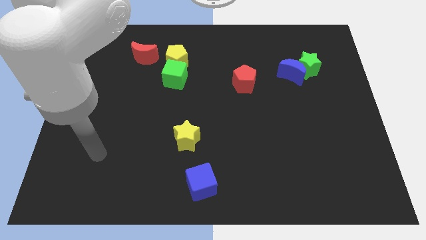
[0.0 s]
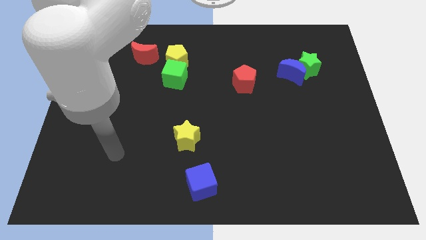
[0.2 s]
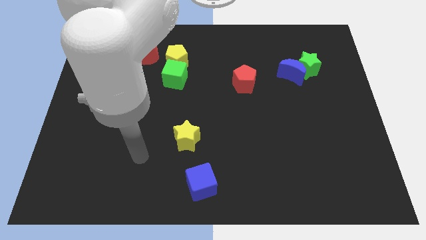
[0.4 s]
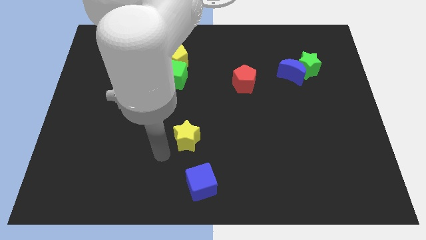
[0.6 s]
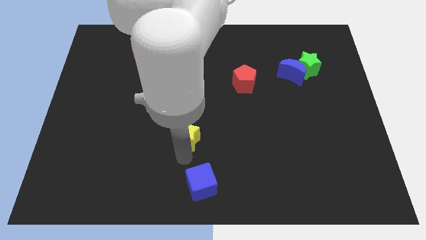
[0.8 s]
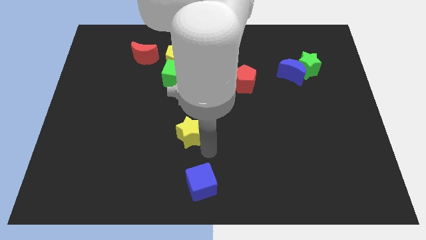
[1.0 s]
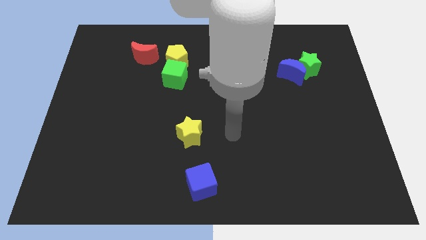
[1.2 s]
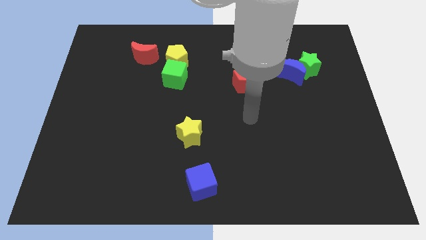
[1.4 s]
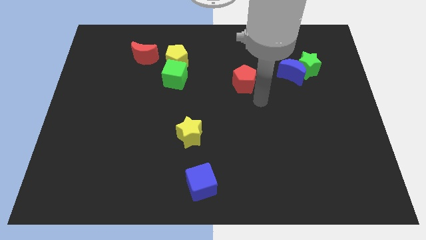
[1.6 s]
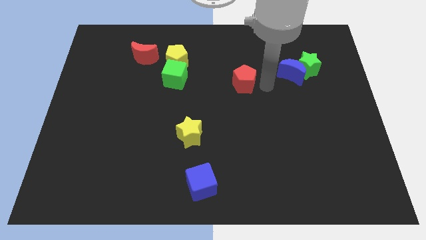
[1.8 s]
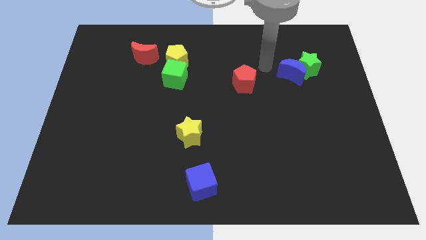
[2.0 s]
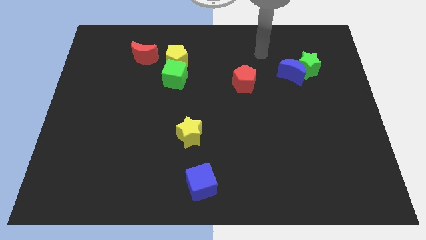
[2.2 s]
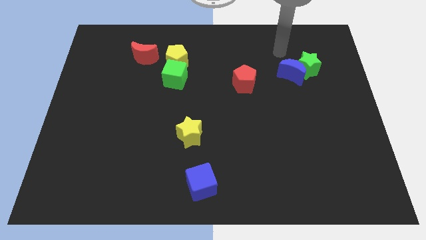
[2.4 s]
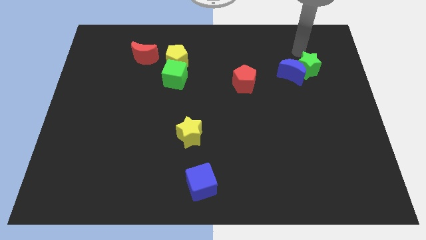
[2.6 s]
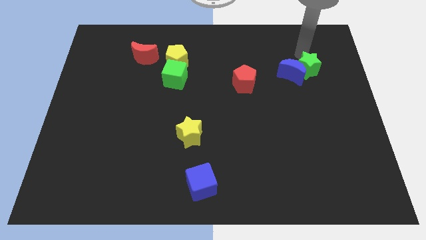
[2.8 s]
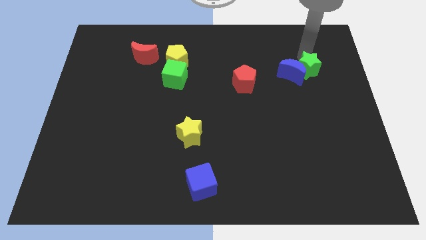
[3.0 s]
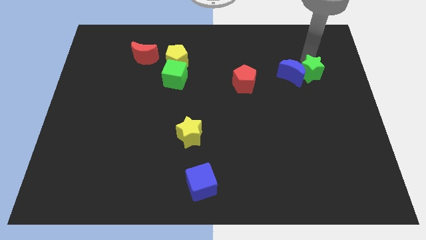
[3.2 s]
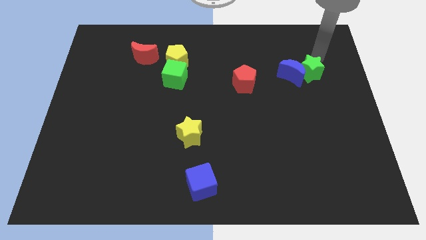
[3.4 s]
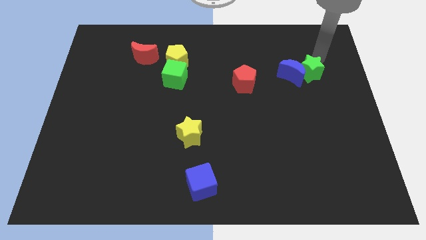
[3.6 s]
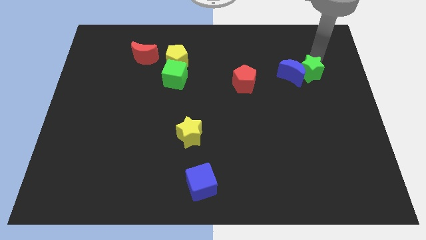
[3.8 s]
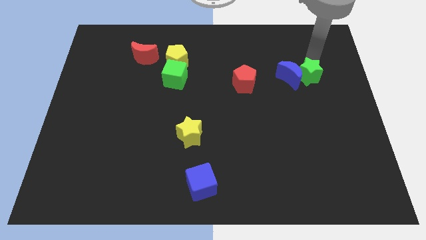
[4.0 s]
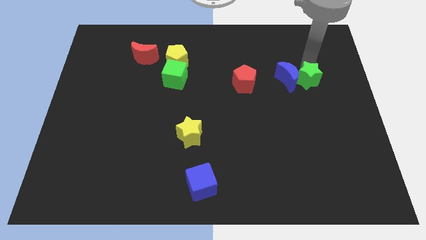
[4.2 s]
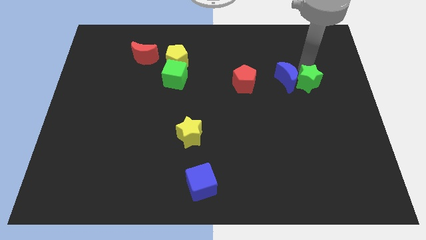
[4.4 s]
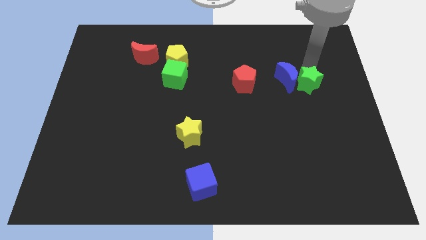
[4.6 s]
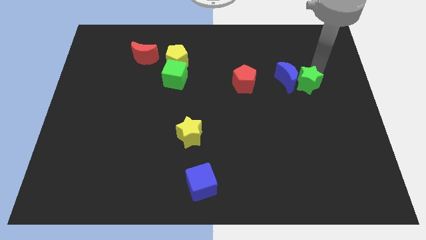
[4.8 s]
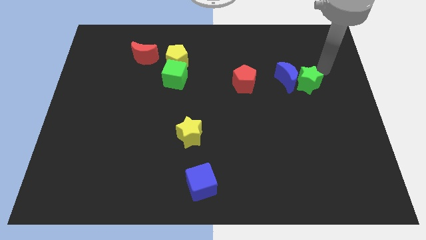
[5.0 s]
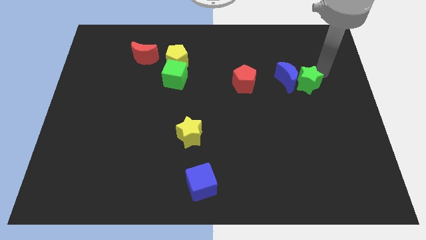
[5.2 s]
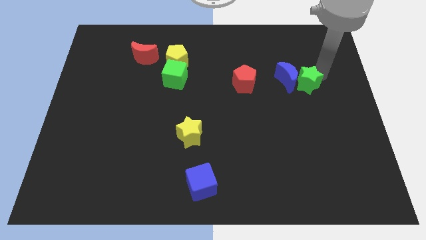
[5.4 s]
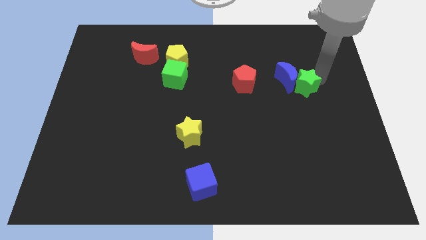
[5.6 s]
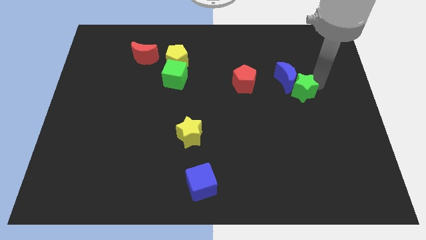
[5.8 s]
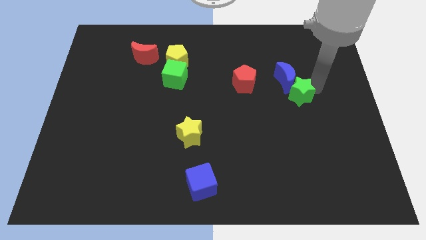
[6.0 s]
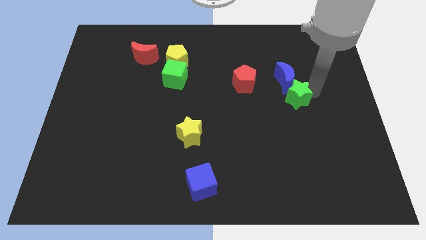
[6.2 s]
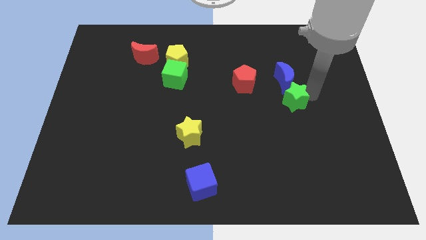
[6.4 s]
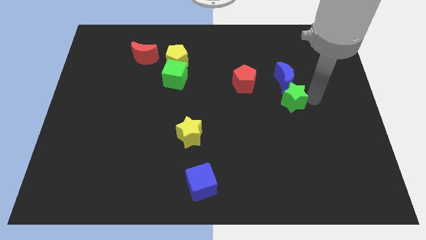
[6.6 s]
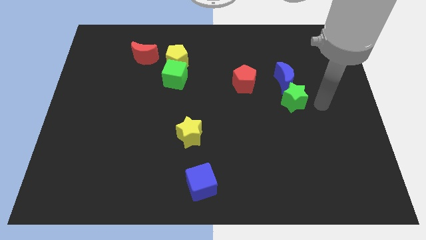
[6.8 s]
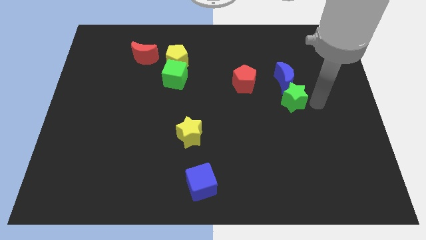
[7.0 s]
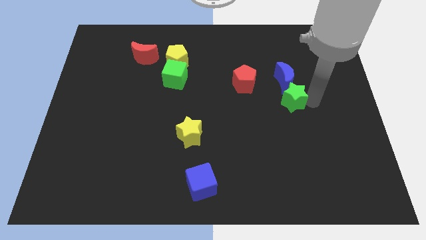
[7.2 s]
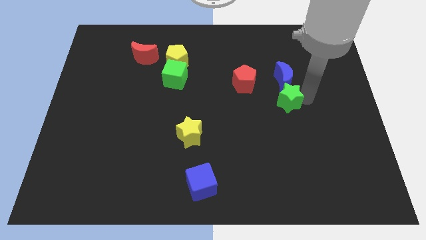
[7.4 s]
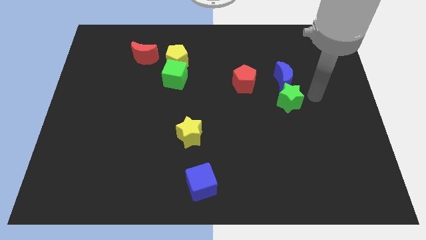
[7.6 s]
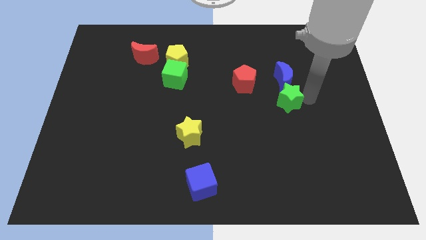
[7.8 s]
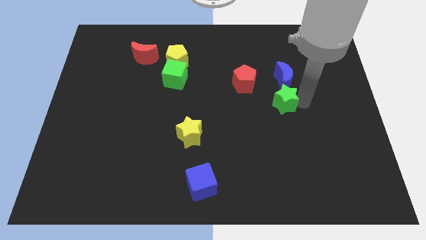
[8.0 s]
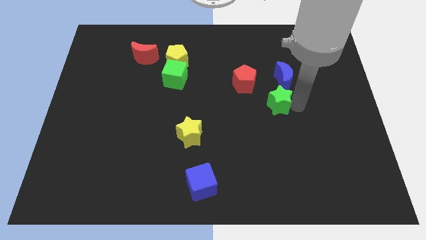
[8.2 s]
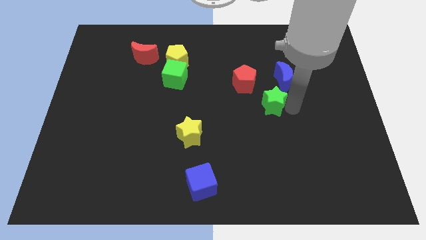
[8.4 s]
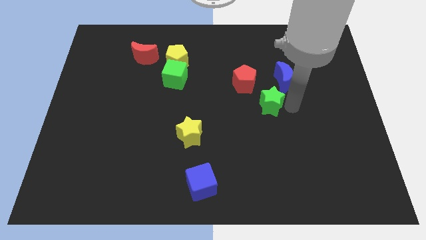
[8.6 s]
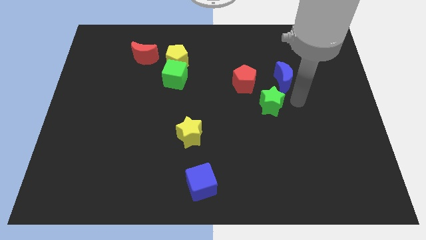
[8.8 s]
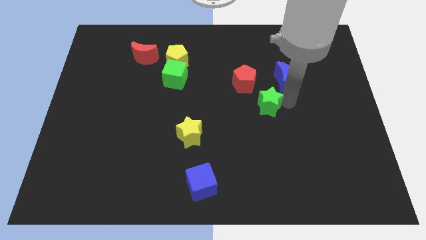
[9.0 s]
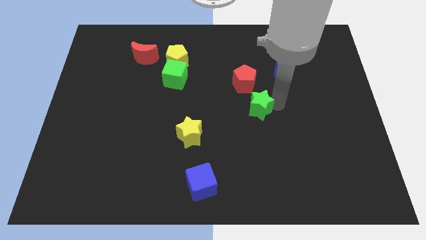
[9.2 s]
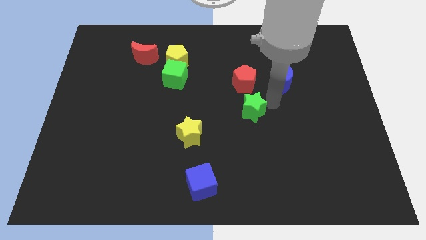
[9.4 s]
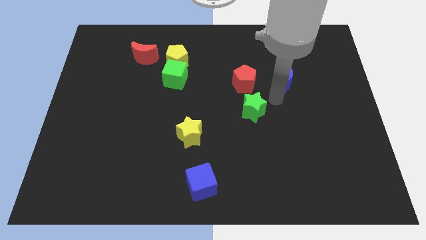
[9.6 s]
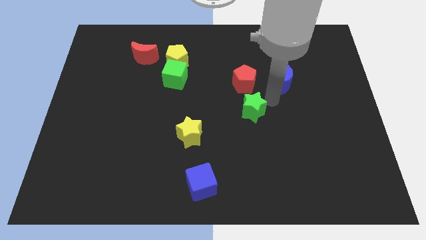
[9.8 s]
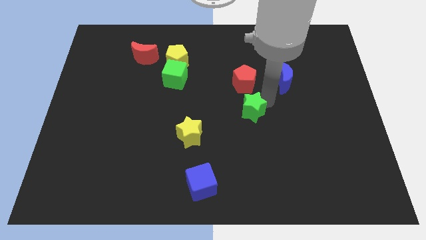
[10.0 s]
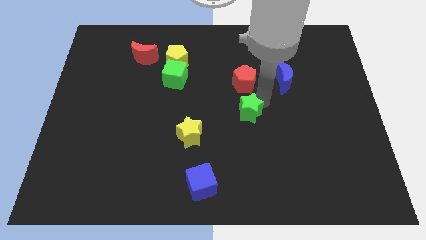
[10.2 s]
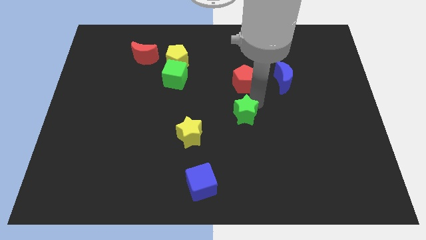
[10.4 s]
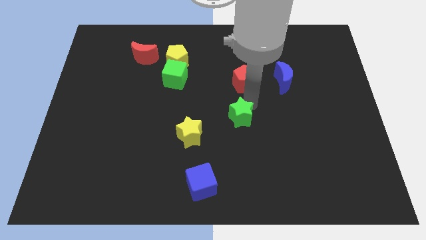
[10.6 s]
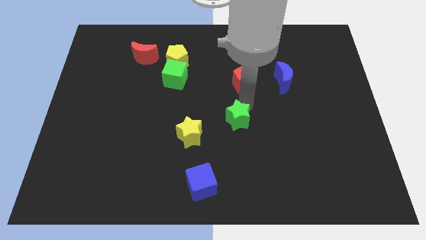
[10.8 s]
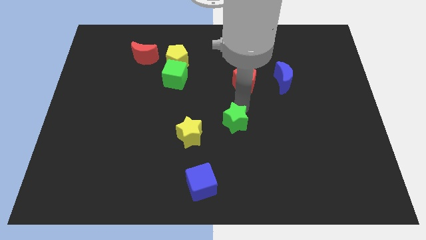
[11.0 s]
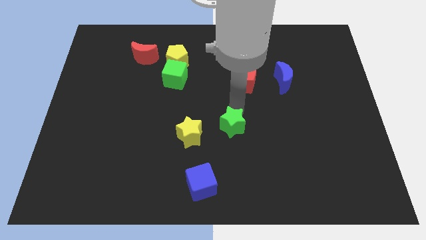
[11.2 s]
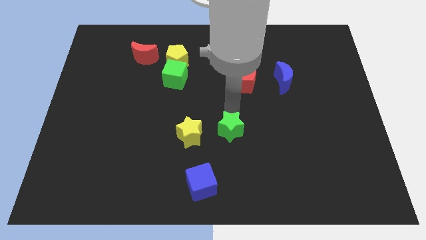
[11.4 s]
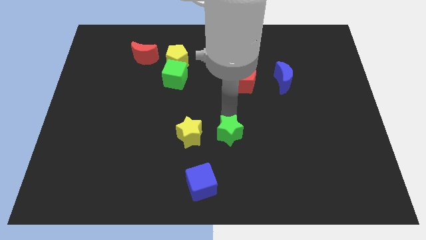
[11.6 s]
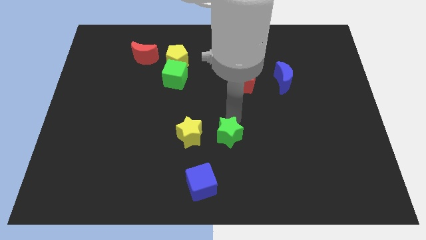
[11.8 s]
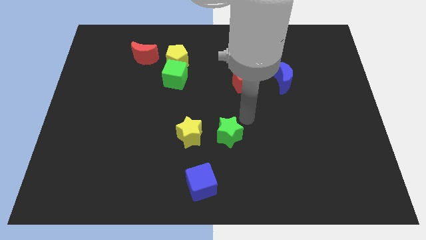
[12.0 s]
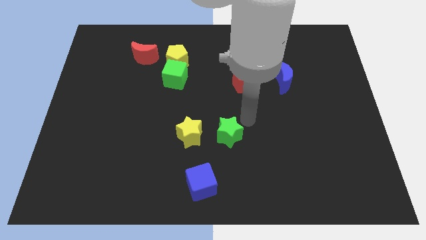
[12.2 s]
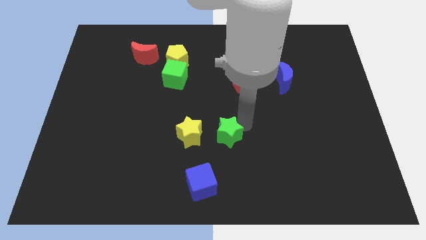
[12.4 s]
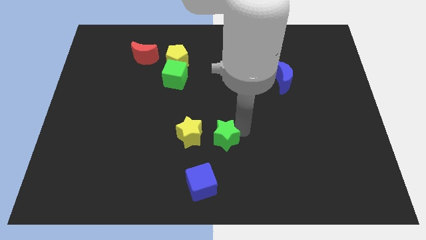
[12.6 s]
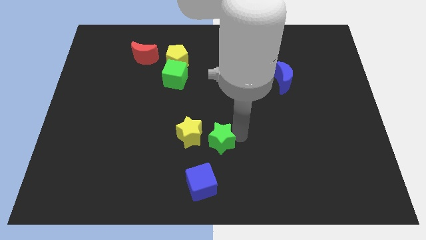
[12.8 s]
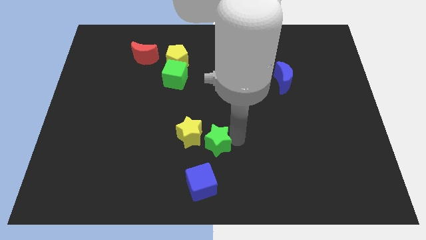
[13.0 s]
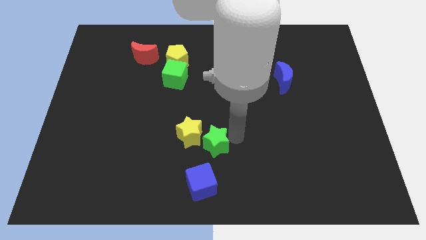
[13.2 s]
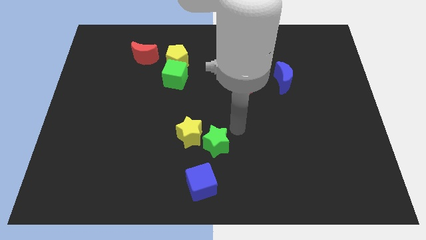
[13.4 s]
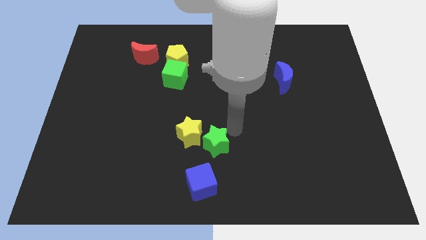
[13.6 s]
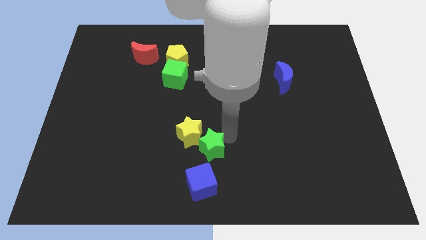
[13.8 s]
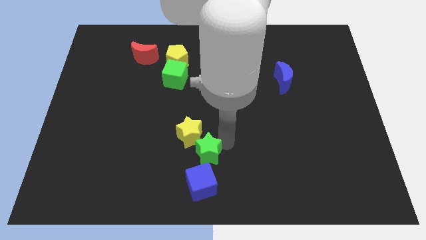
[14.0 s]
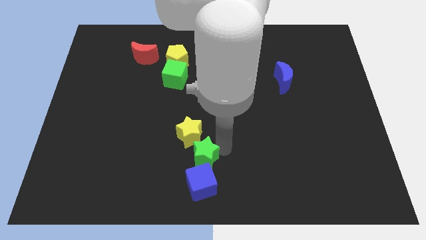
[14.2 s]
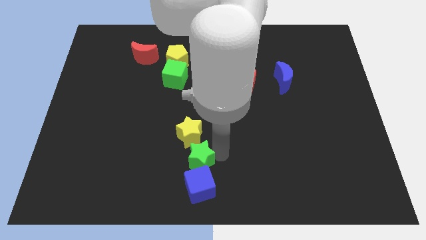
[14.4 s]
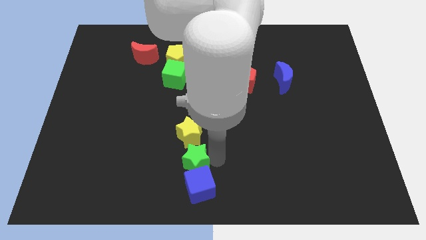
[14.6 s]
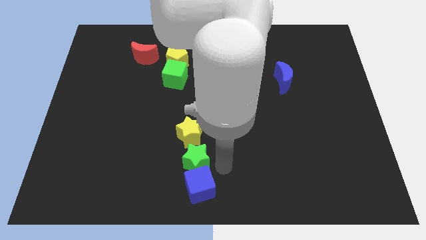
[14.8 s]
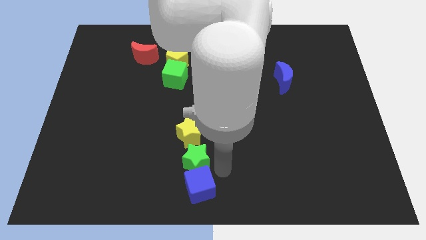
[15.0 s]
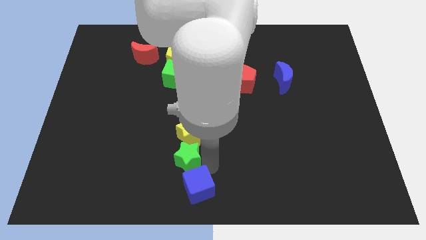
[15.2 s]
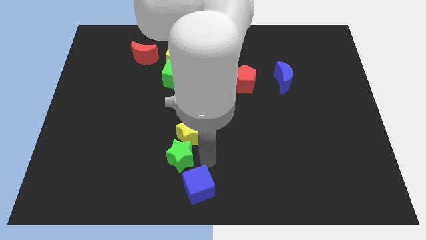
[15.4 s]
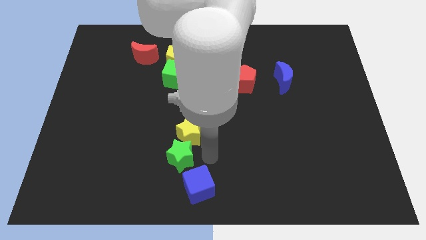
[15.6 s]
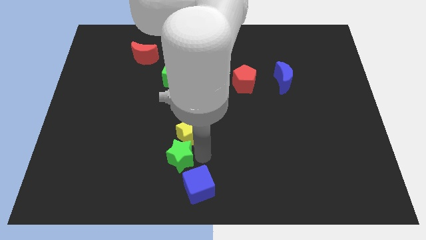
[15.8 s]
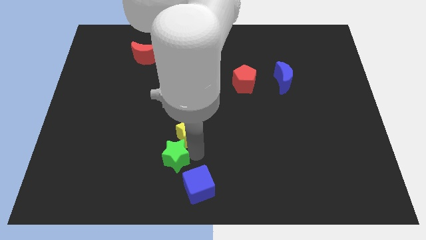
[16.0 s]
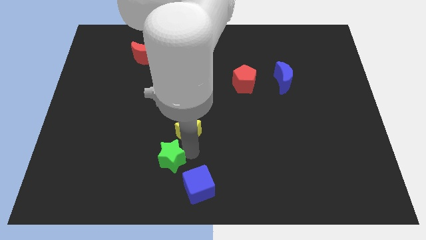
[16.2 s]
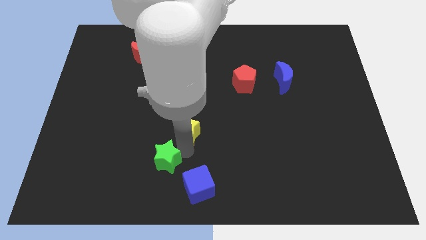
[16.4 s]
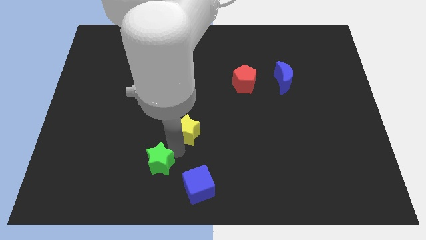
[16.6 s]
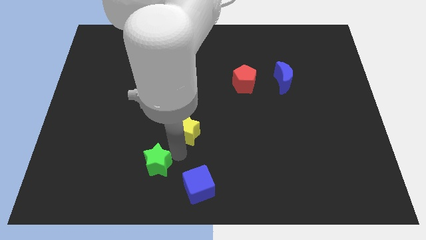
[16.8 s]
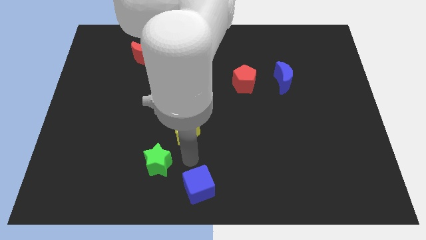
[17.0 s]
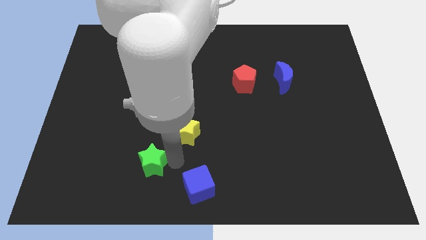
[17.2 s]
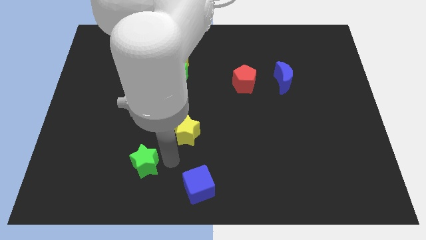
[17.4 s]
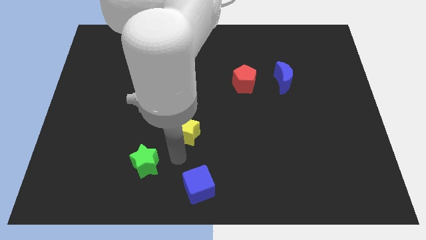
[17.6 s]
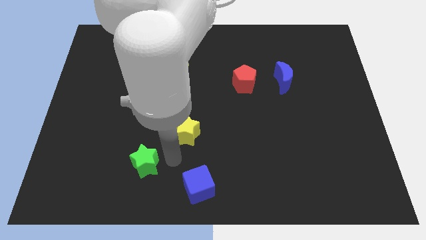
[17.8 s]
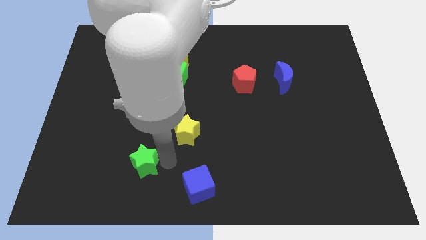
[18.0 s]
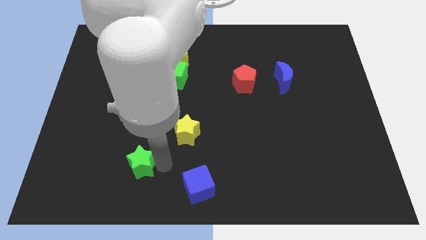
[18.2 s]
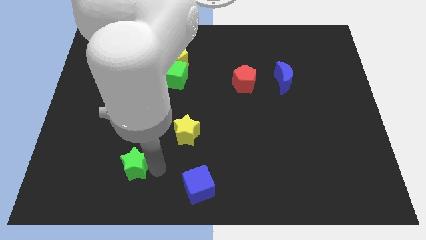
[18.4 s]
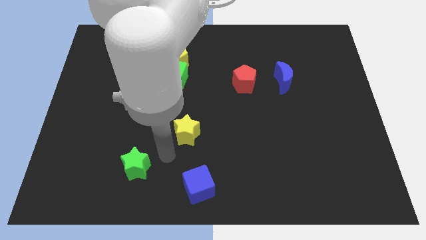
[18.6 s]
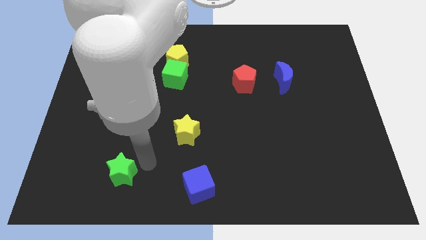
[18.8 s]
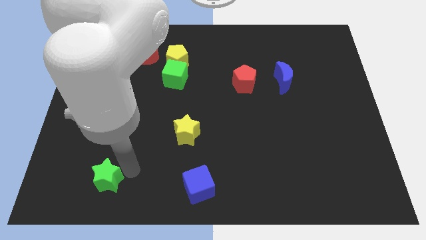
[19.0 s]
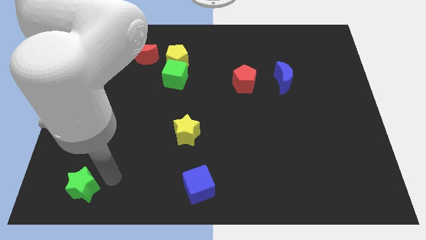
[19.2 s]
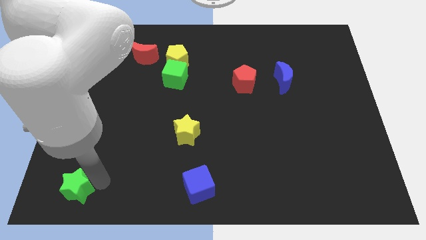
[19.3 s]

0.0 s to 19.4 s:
move the green star to the bottom left of the board
